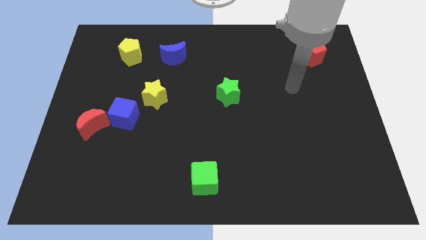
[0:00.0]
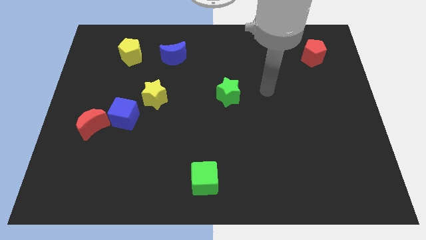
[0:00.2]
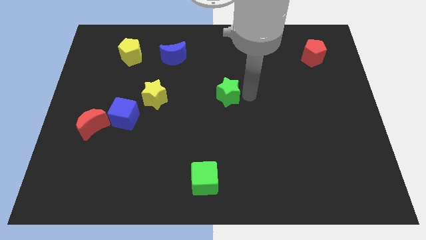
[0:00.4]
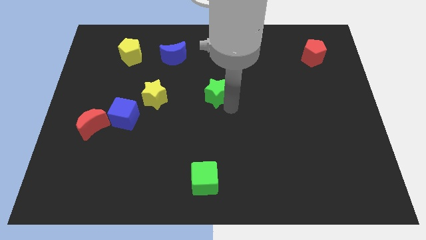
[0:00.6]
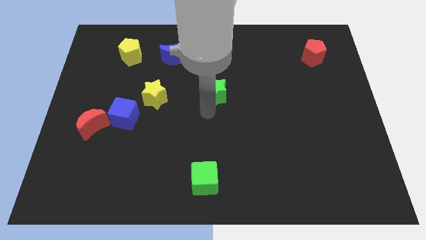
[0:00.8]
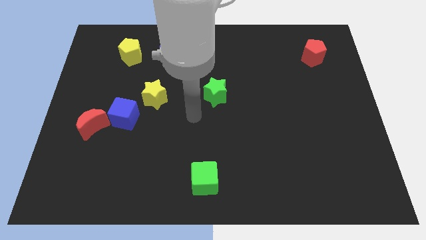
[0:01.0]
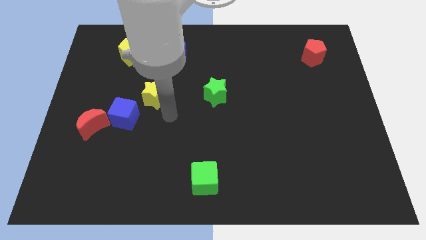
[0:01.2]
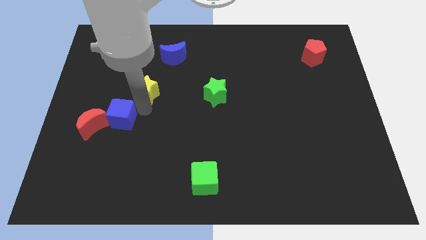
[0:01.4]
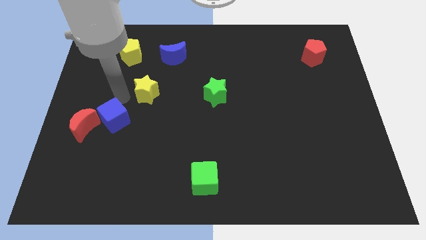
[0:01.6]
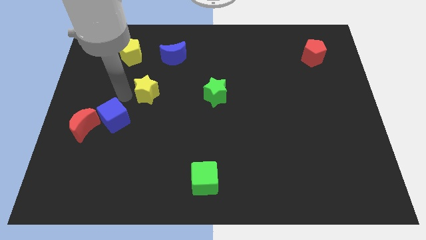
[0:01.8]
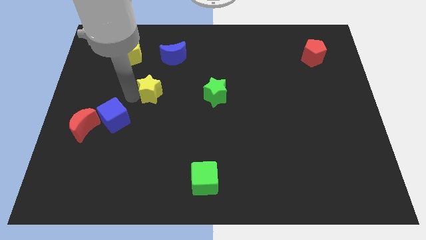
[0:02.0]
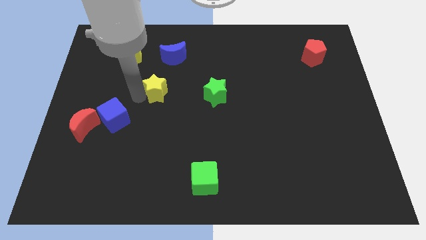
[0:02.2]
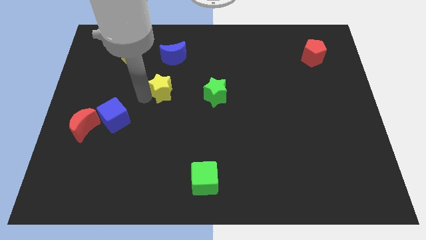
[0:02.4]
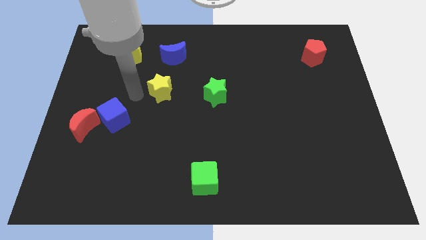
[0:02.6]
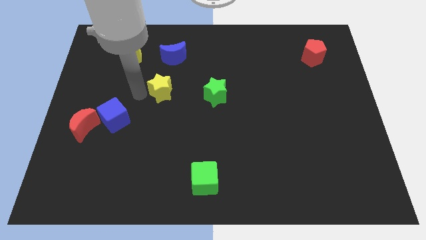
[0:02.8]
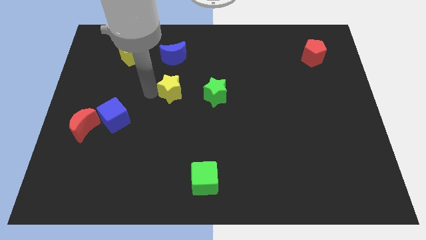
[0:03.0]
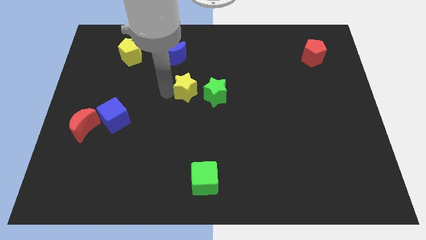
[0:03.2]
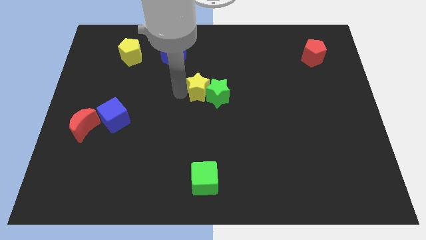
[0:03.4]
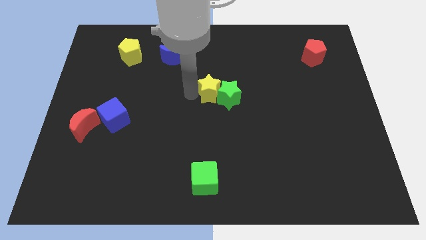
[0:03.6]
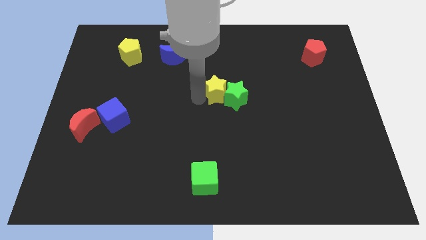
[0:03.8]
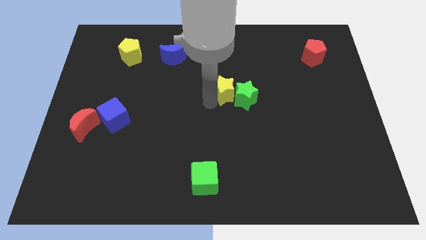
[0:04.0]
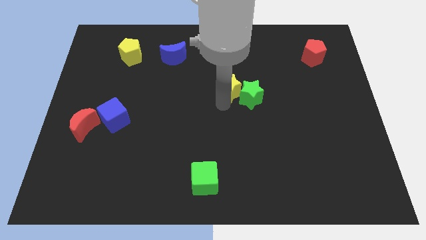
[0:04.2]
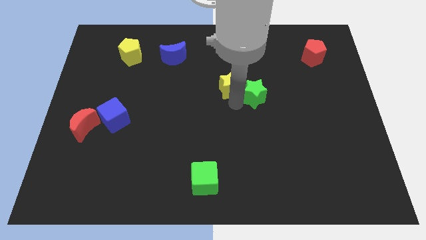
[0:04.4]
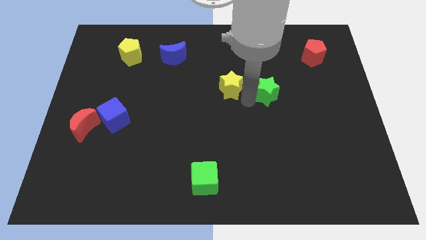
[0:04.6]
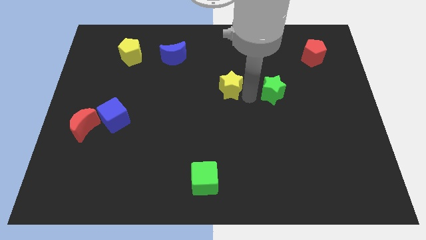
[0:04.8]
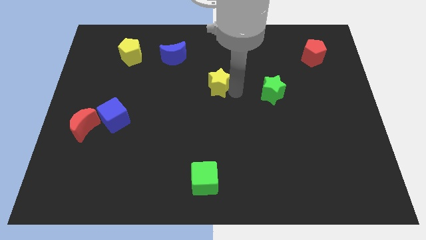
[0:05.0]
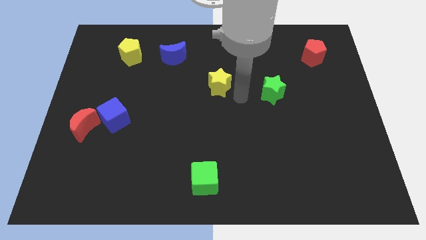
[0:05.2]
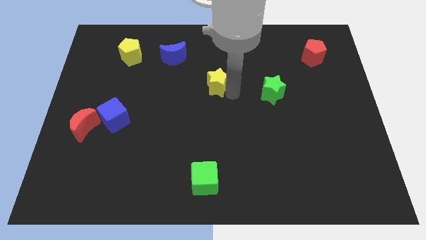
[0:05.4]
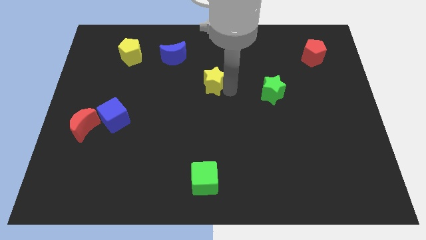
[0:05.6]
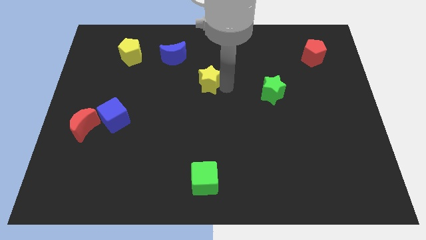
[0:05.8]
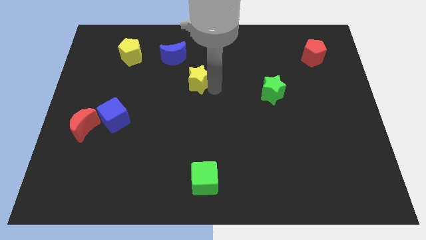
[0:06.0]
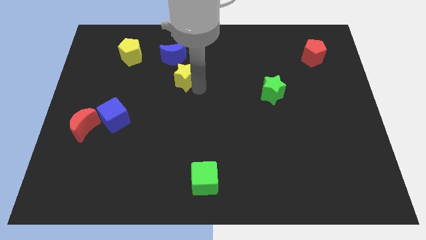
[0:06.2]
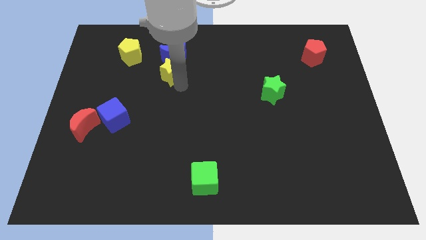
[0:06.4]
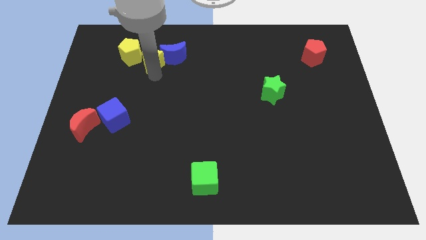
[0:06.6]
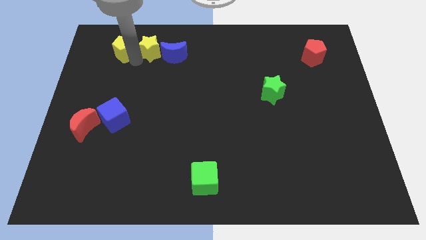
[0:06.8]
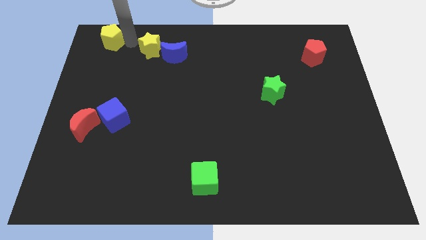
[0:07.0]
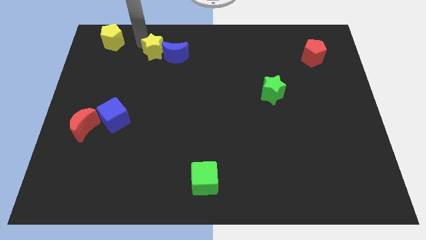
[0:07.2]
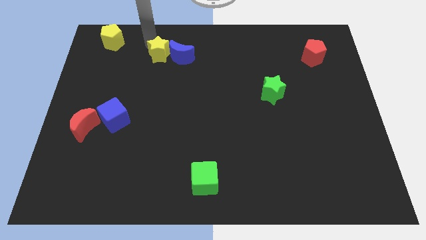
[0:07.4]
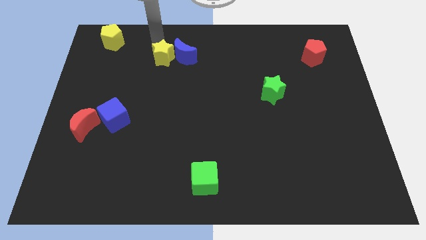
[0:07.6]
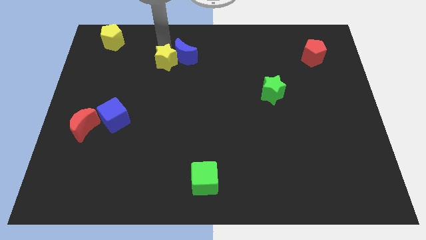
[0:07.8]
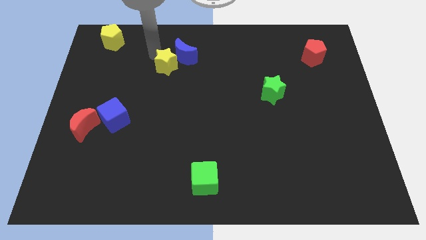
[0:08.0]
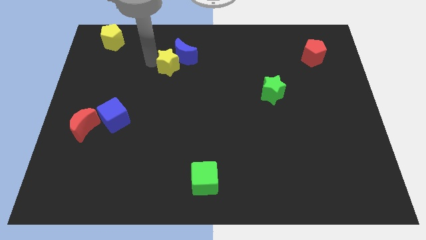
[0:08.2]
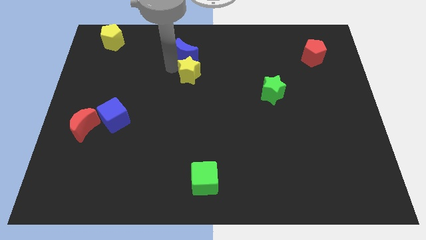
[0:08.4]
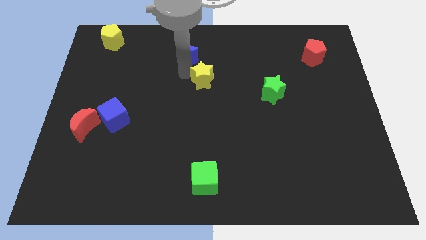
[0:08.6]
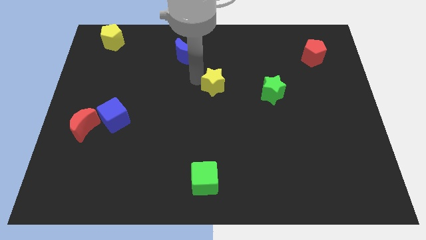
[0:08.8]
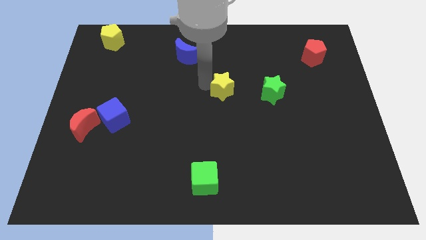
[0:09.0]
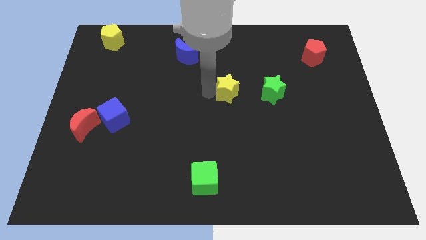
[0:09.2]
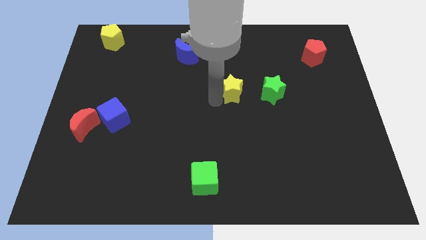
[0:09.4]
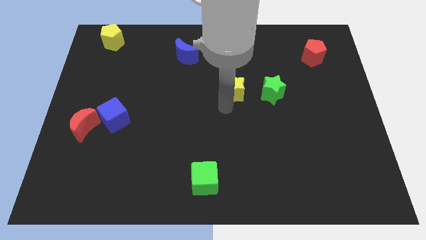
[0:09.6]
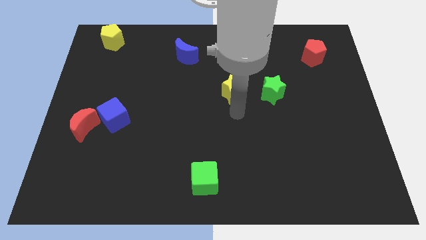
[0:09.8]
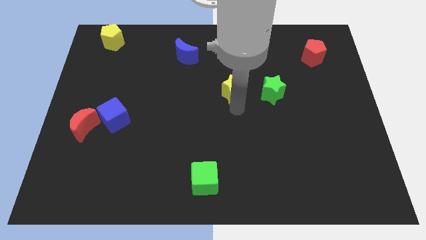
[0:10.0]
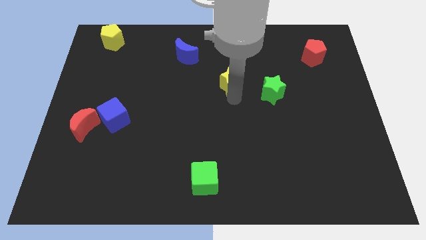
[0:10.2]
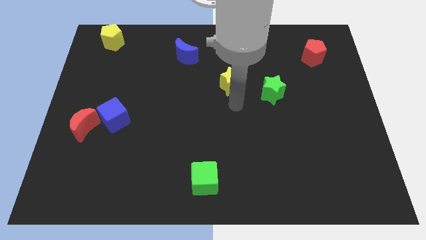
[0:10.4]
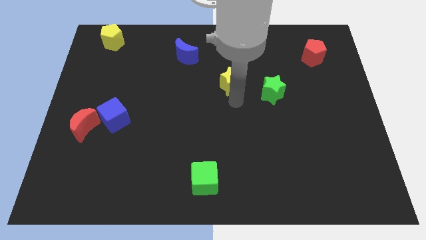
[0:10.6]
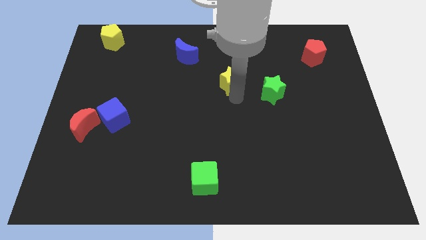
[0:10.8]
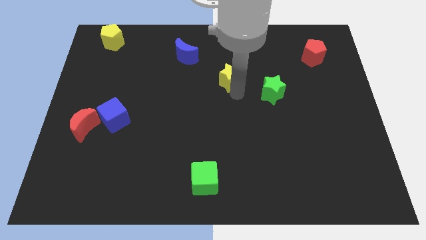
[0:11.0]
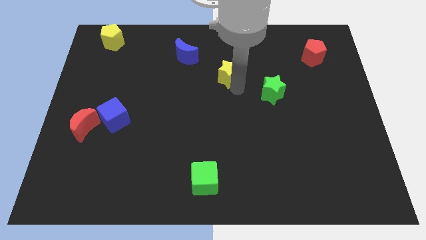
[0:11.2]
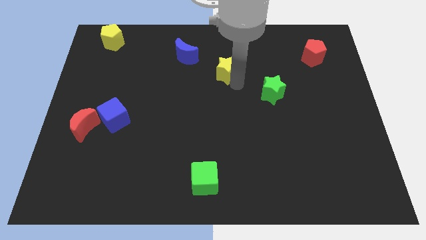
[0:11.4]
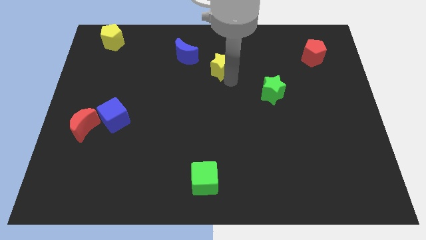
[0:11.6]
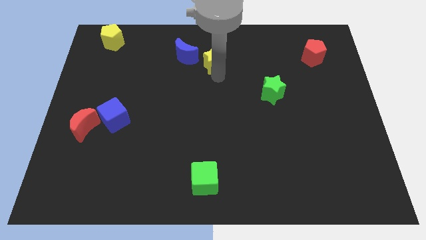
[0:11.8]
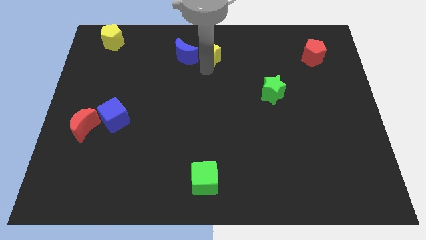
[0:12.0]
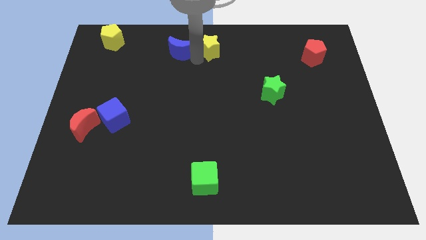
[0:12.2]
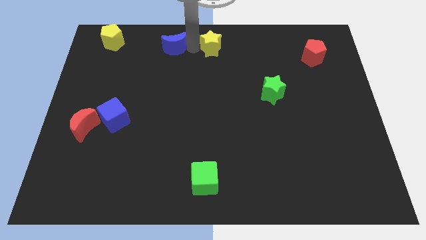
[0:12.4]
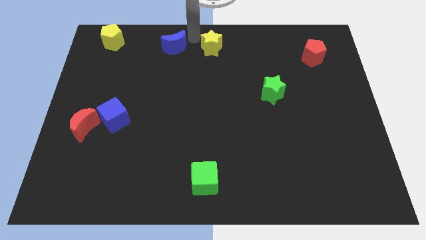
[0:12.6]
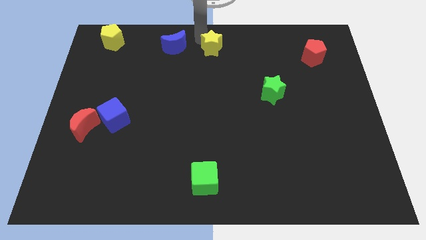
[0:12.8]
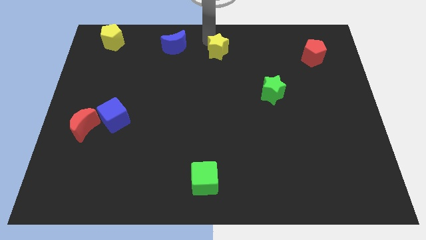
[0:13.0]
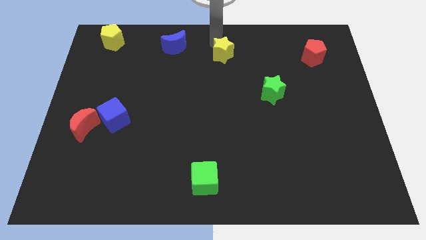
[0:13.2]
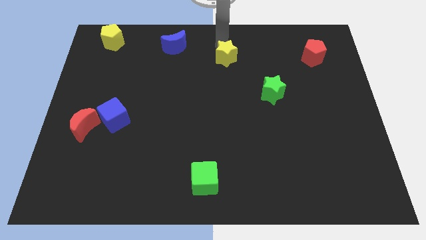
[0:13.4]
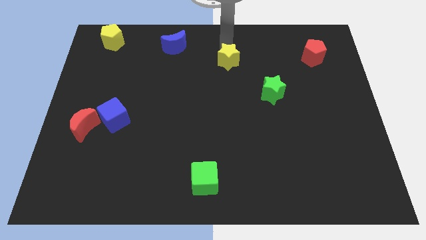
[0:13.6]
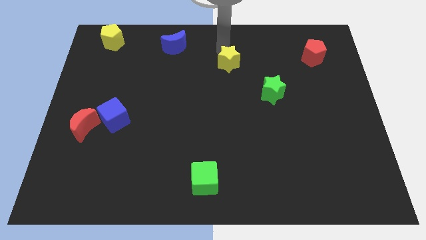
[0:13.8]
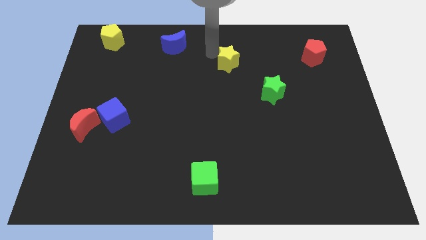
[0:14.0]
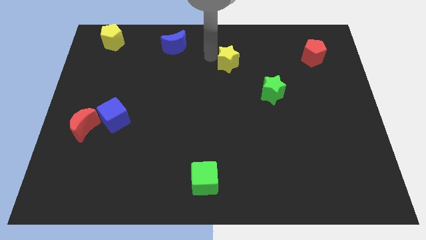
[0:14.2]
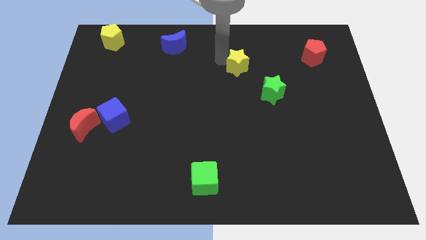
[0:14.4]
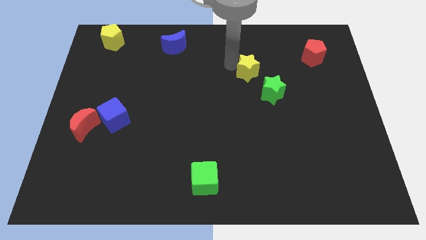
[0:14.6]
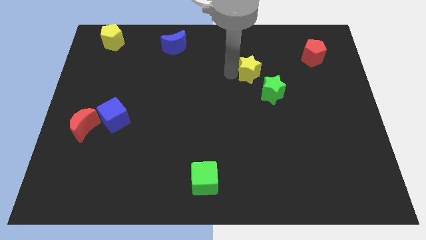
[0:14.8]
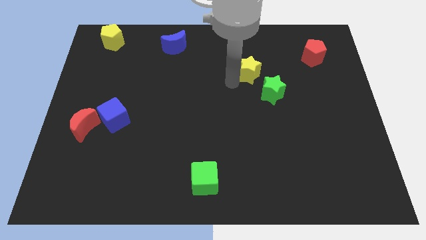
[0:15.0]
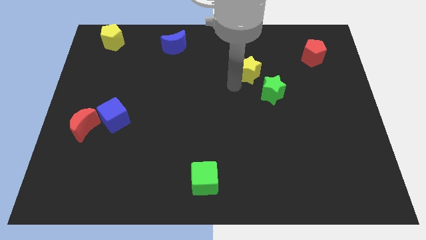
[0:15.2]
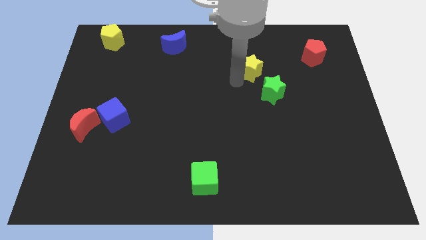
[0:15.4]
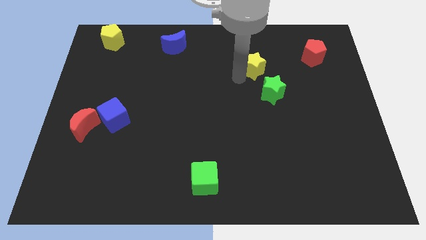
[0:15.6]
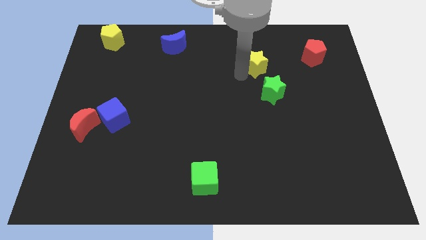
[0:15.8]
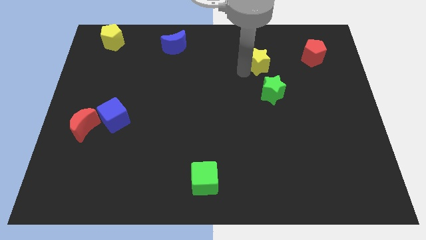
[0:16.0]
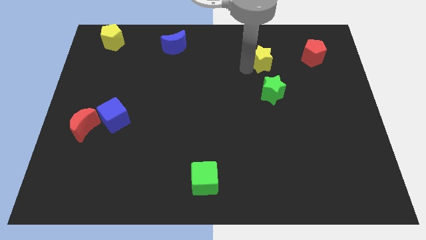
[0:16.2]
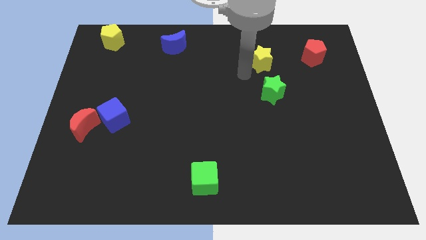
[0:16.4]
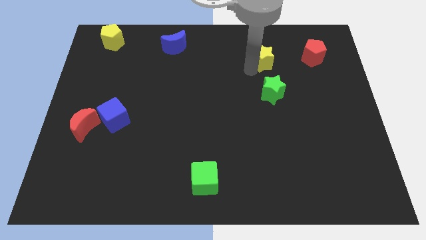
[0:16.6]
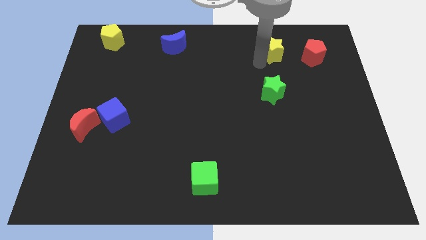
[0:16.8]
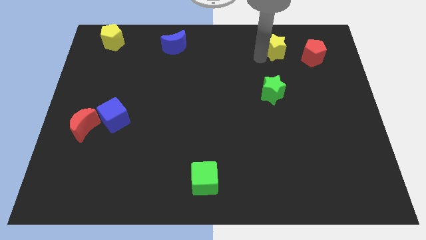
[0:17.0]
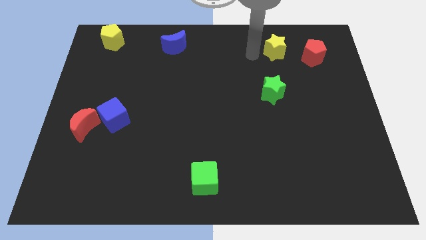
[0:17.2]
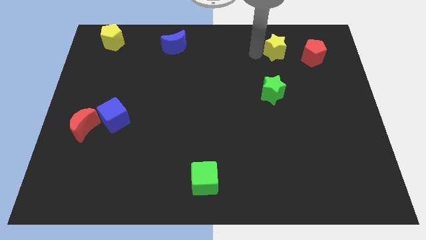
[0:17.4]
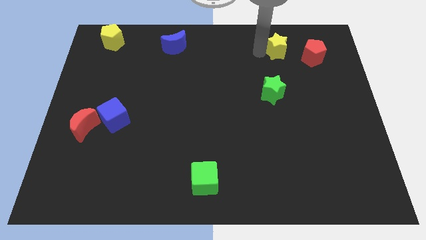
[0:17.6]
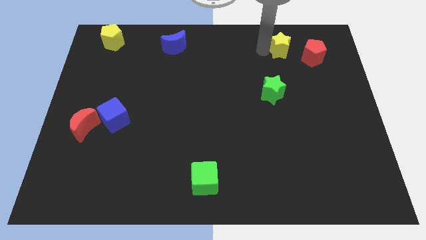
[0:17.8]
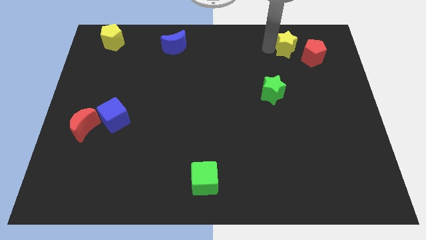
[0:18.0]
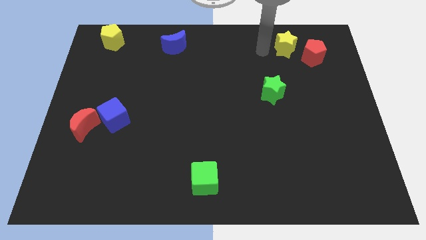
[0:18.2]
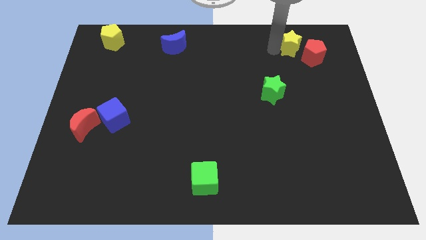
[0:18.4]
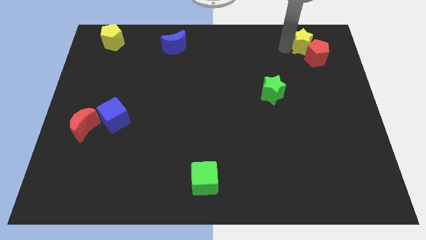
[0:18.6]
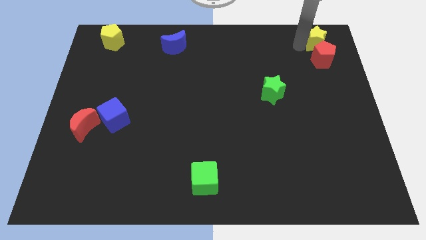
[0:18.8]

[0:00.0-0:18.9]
move the yellow star to the upper right corner
